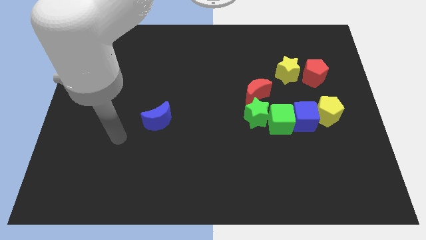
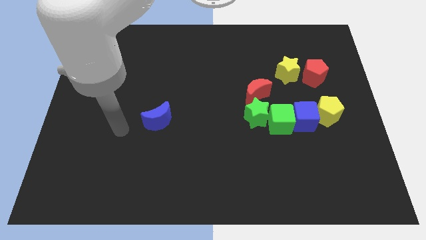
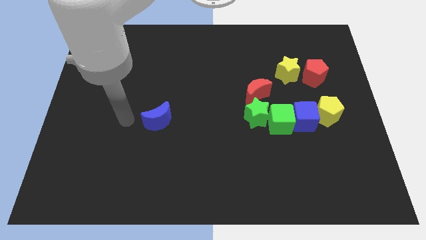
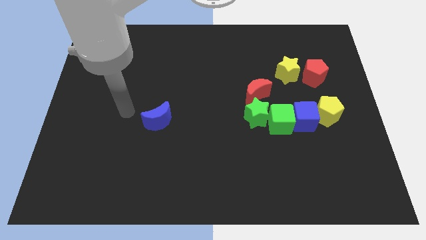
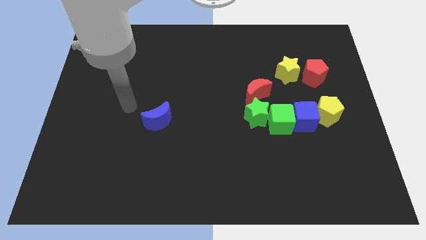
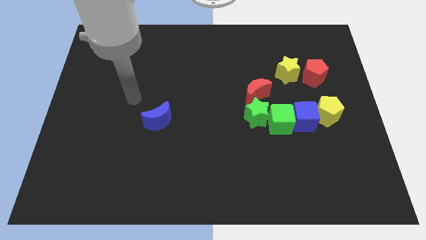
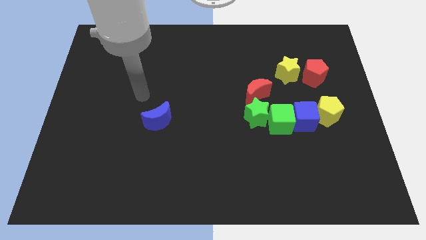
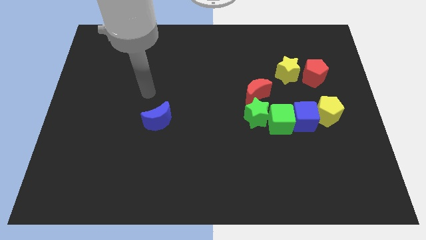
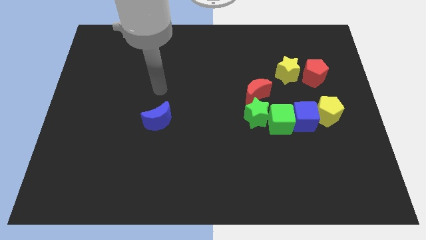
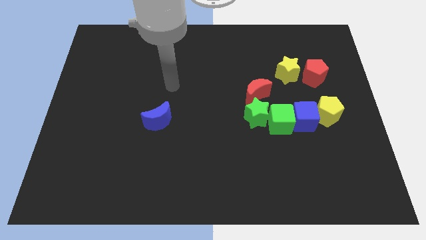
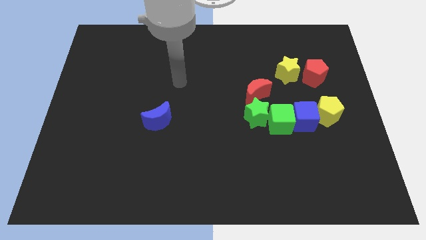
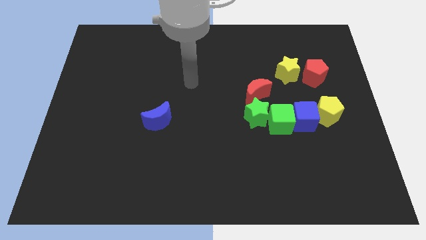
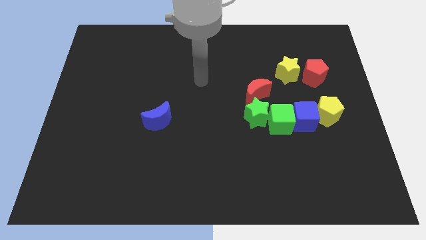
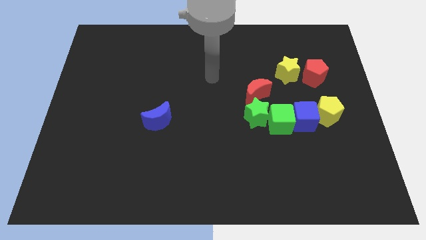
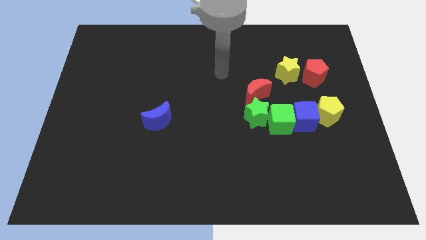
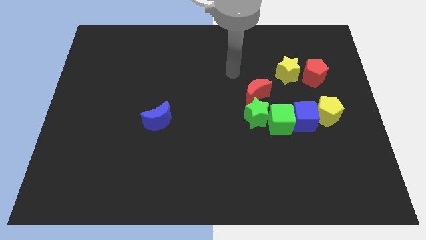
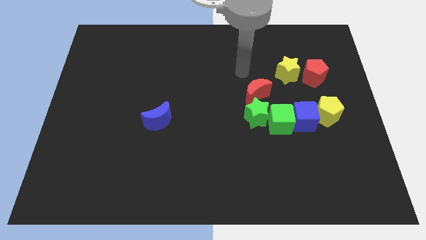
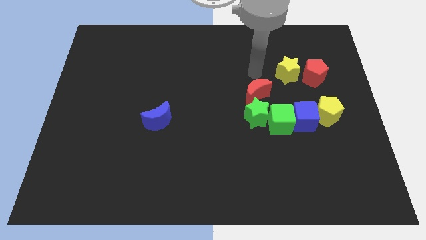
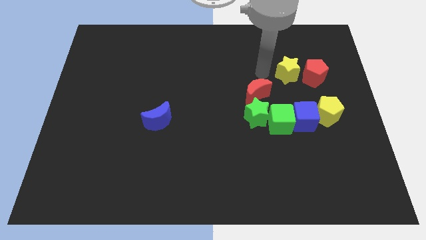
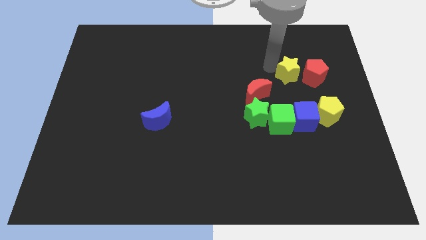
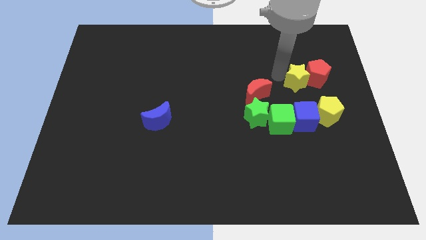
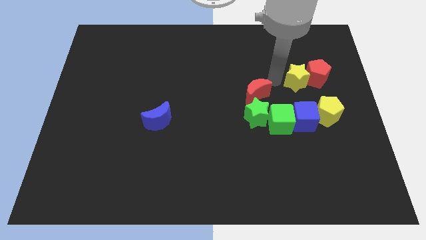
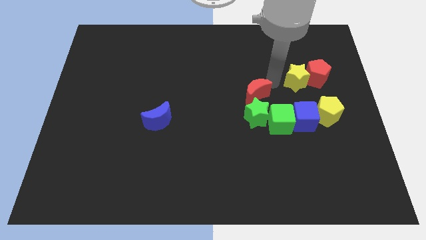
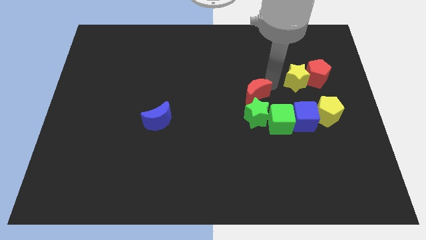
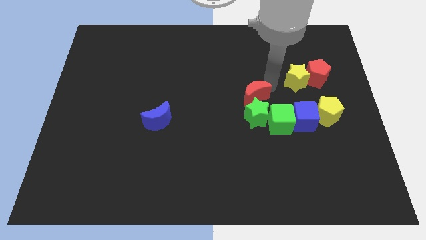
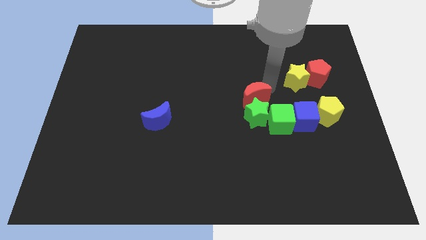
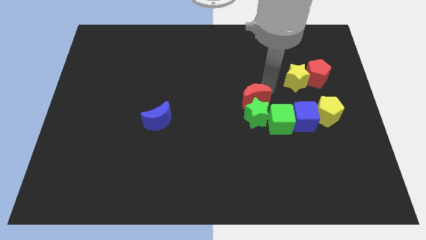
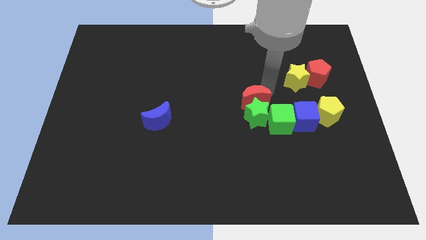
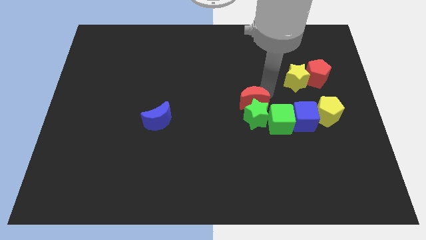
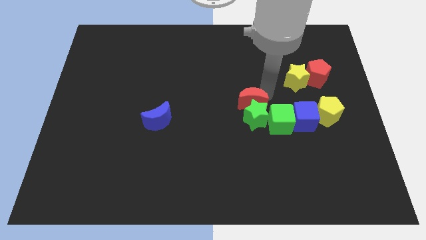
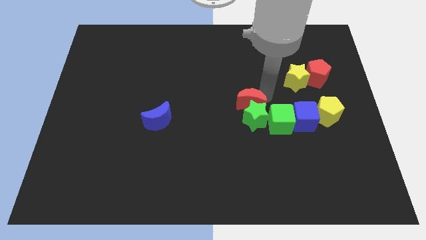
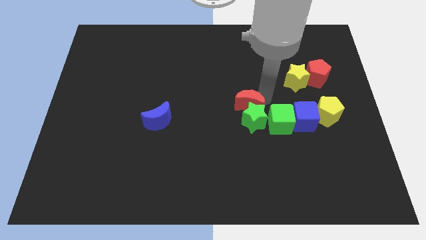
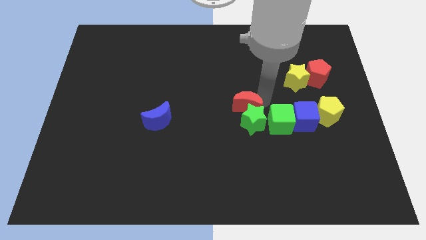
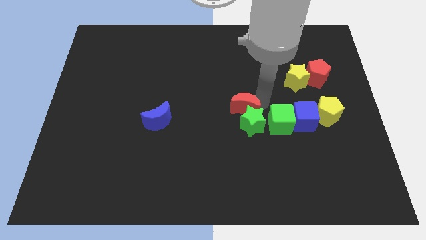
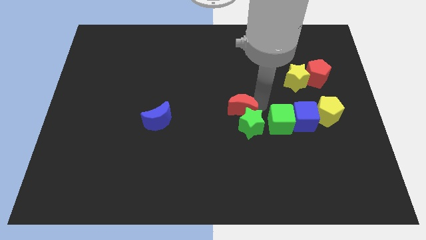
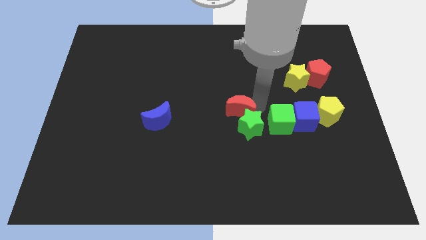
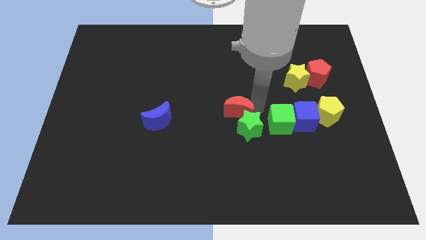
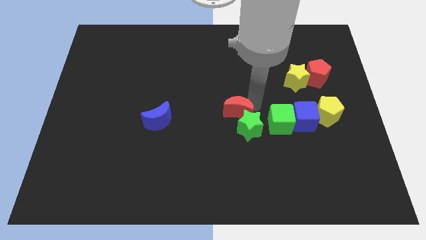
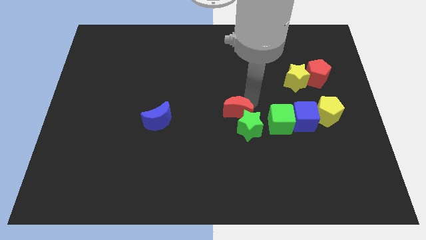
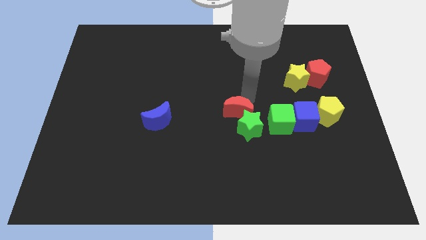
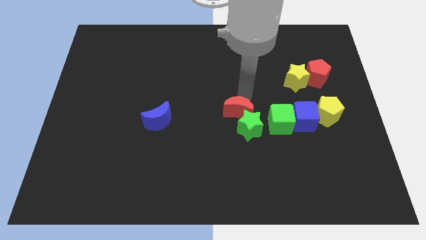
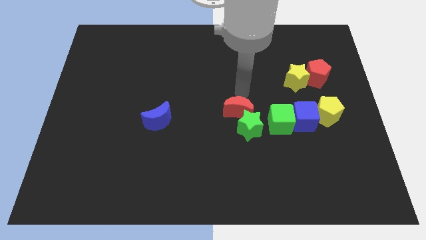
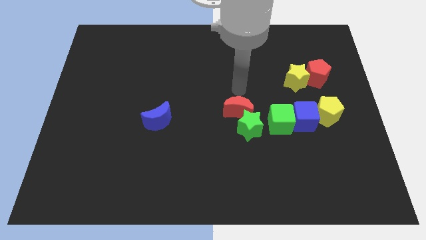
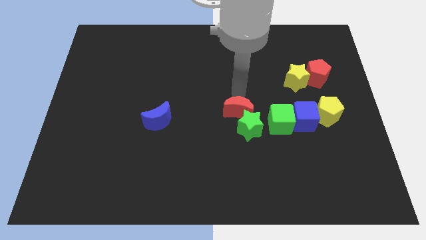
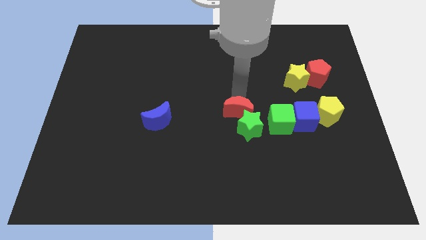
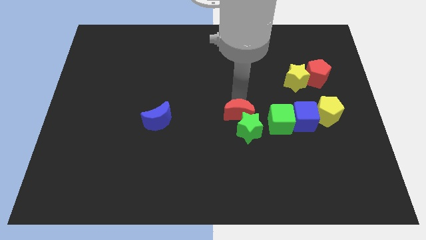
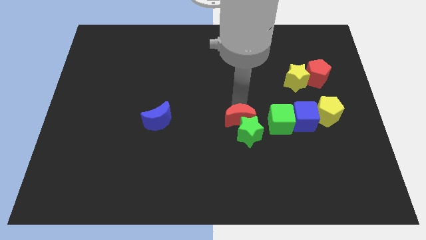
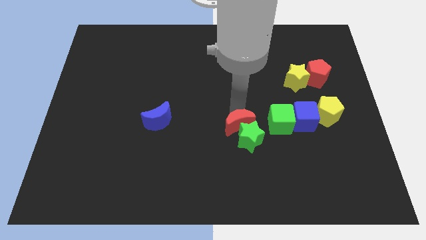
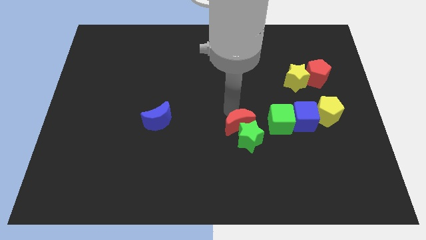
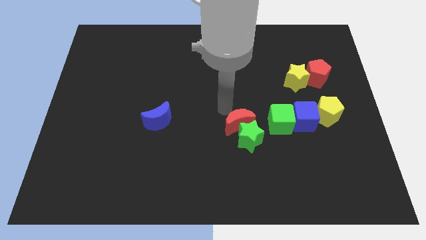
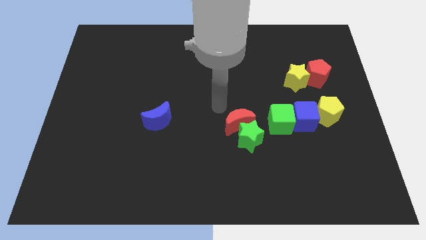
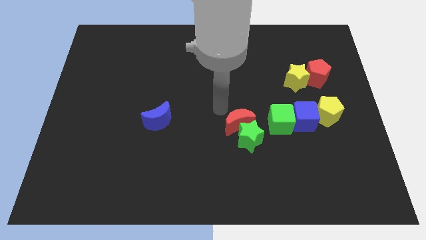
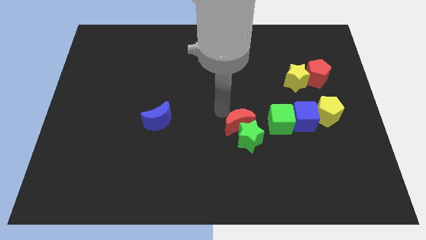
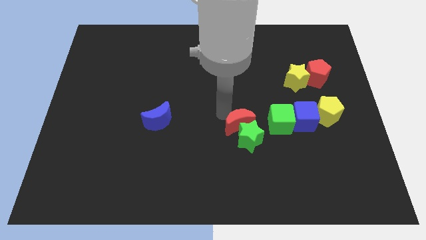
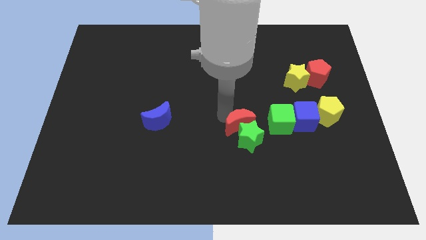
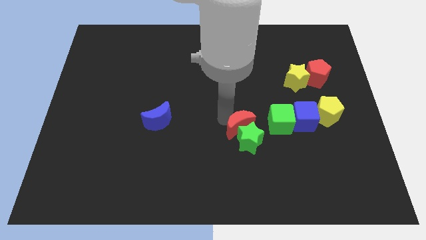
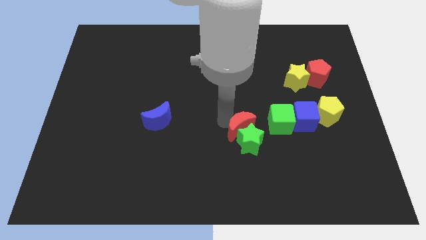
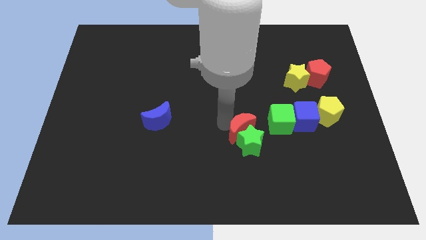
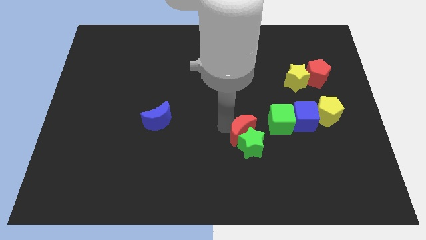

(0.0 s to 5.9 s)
move the red moon to the bottom left side of the green cube

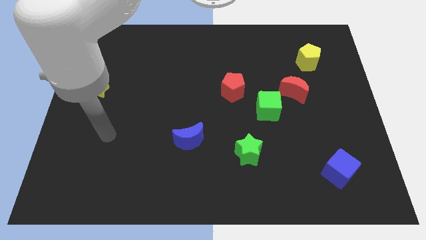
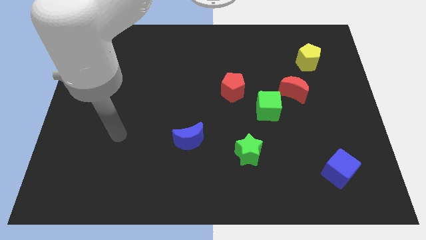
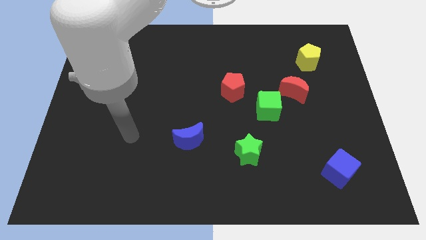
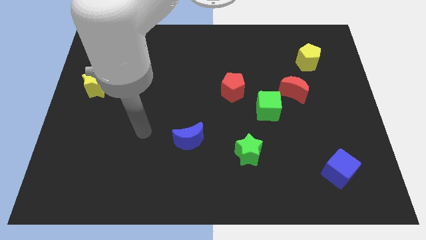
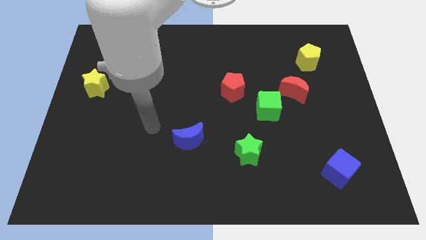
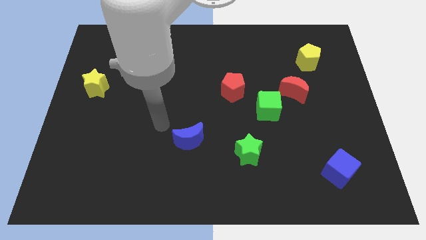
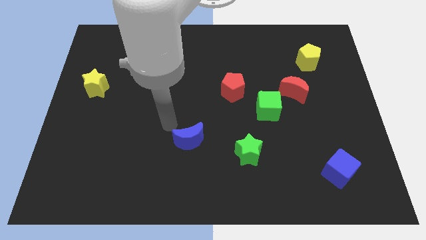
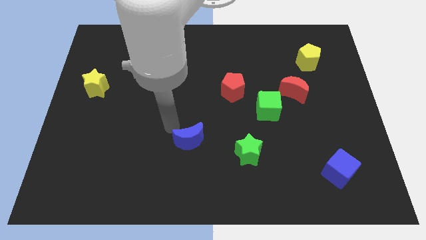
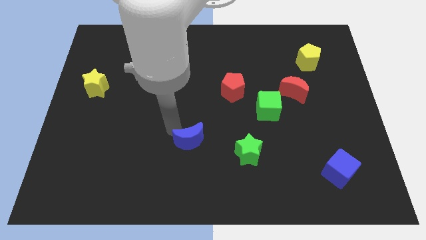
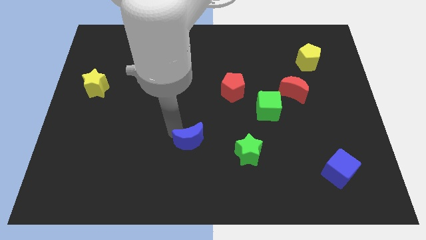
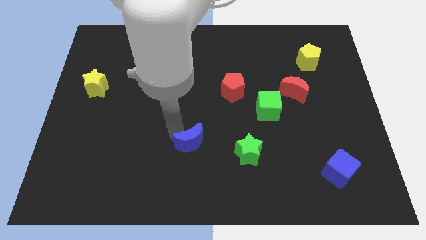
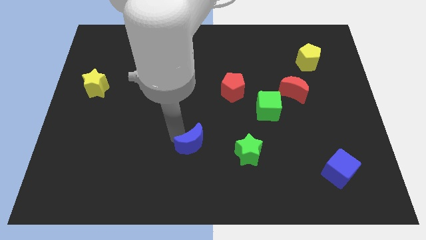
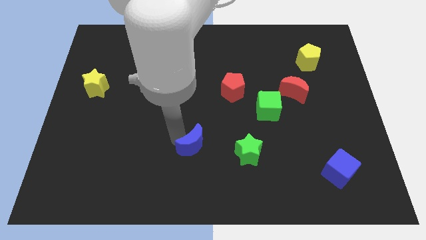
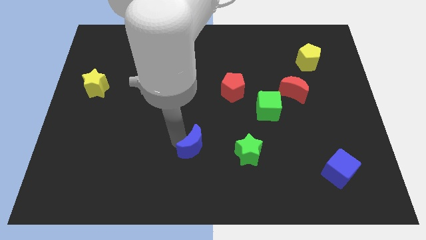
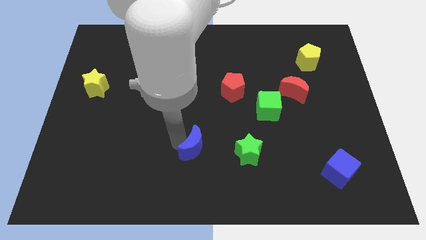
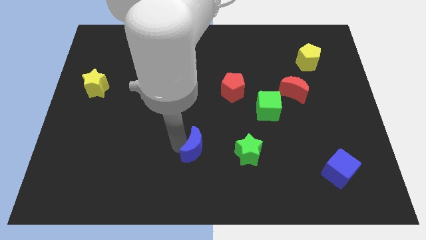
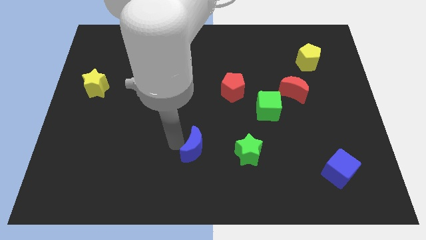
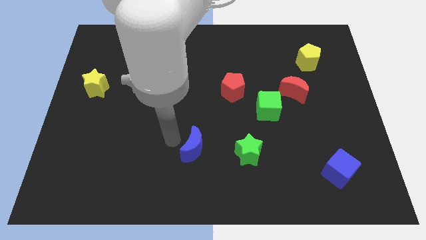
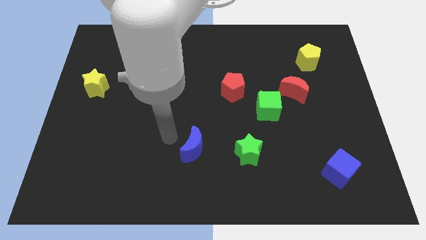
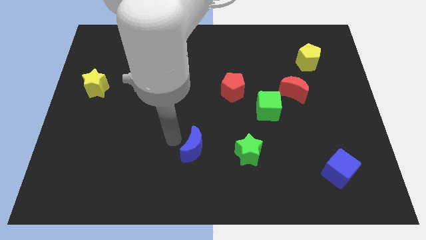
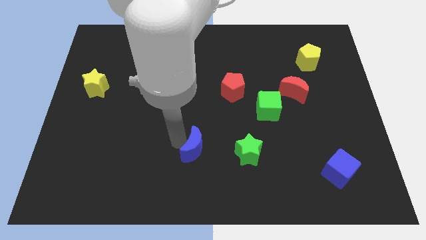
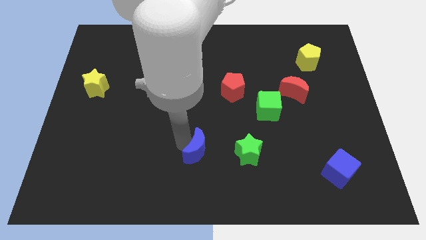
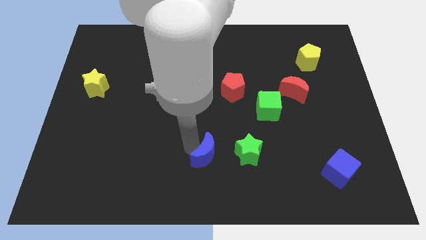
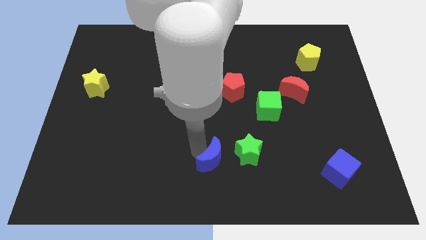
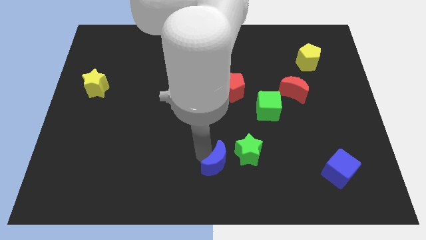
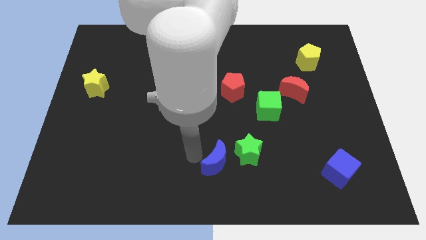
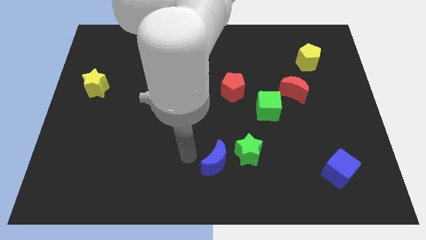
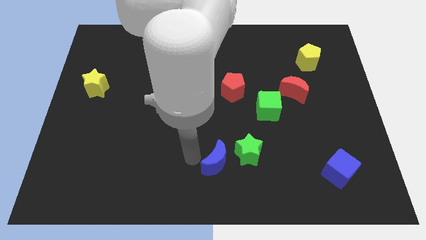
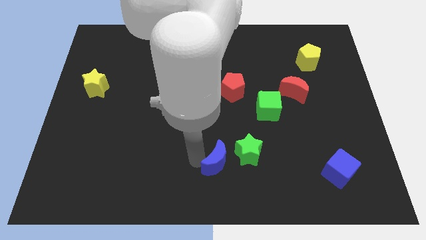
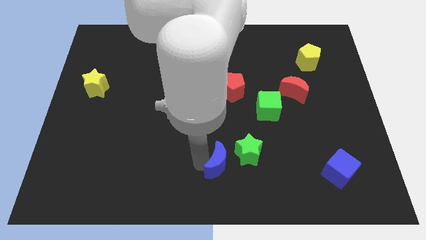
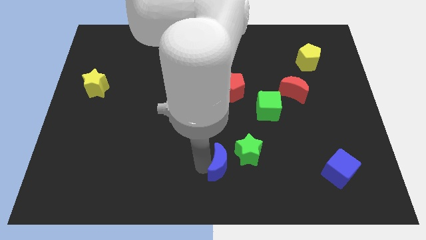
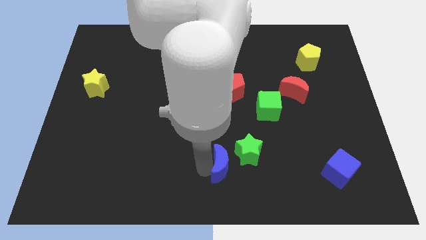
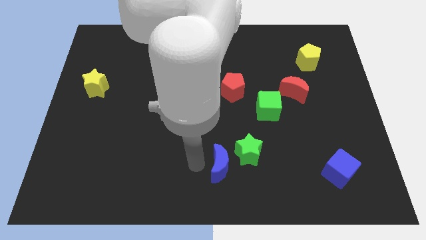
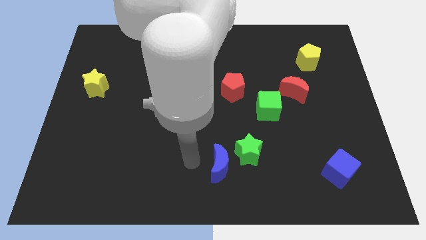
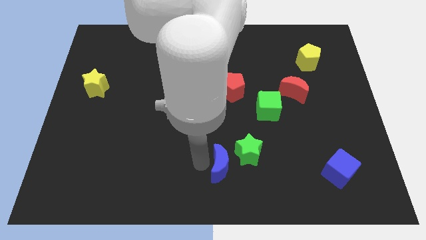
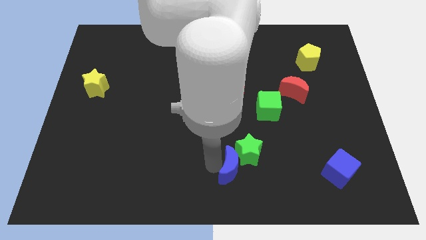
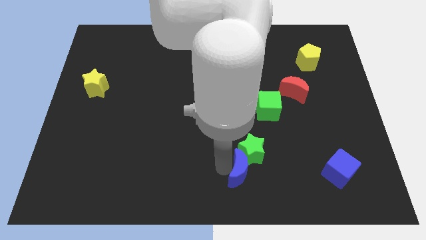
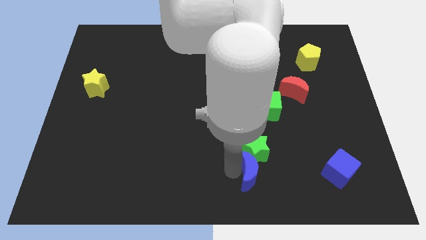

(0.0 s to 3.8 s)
put the blue moon to the bottom right side of the green star
